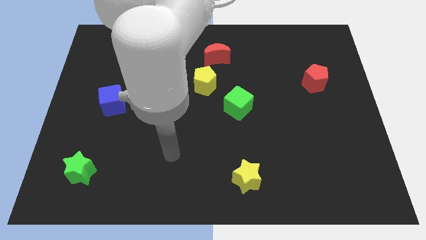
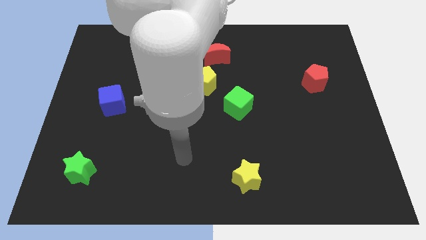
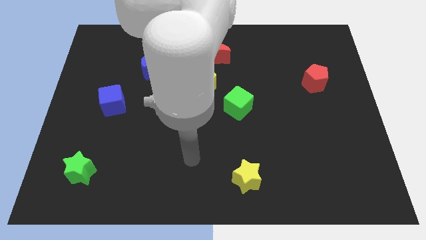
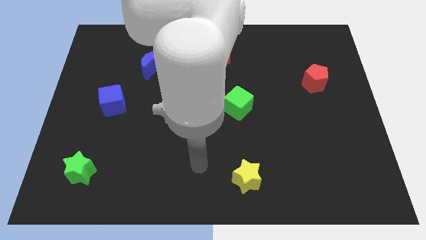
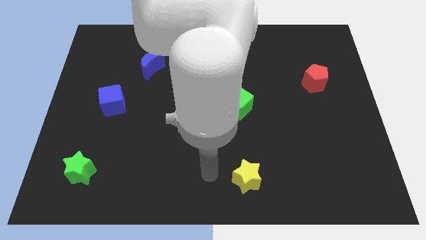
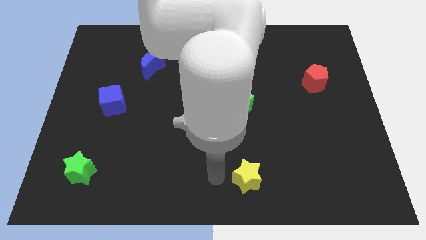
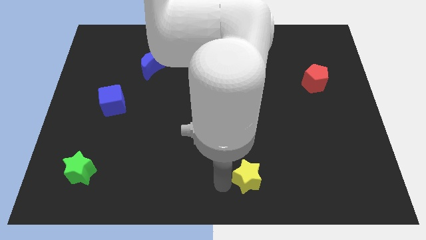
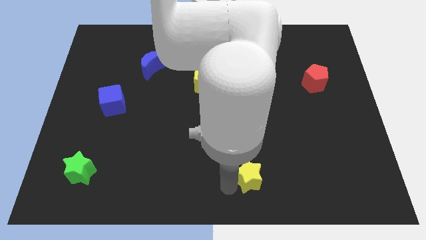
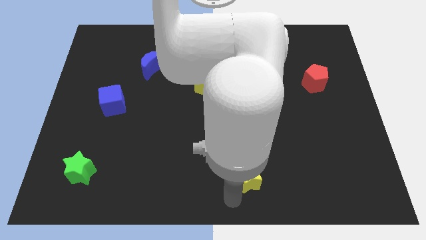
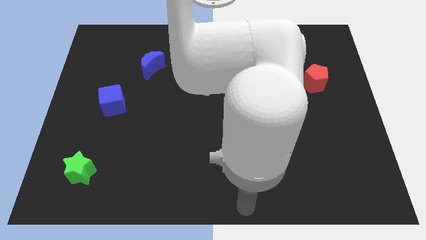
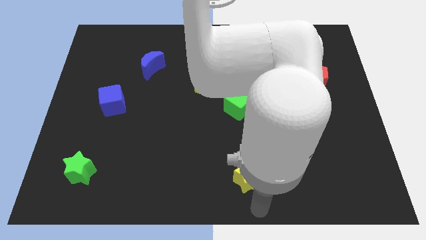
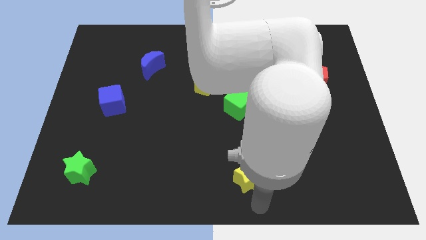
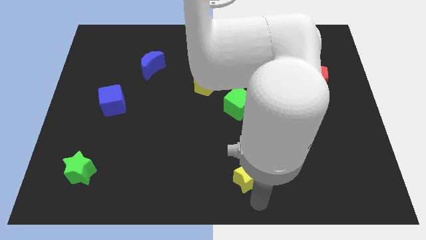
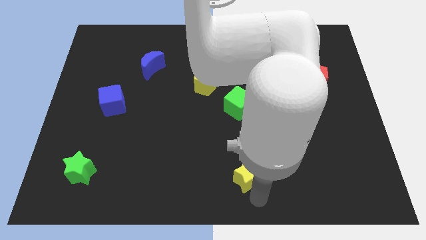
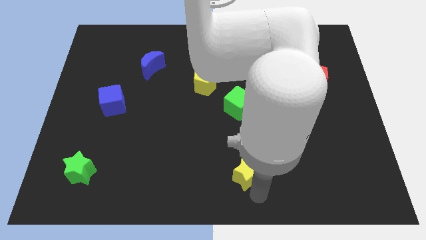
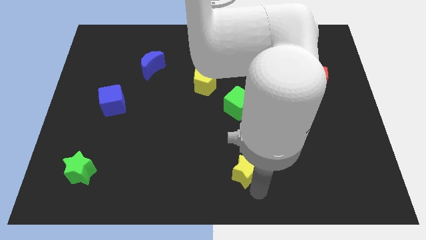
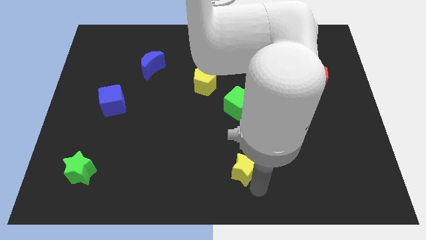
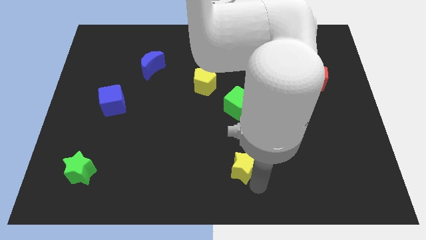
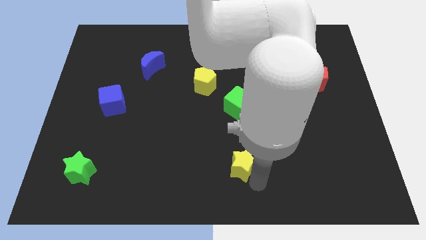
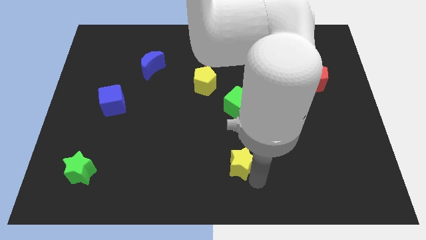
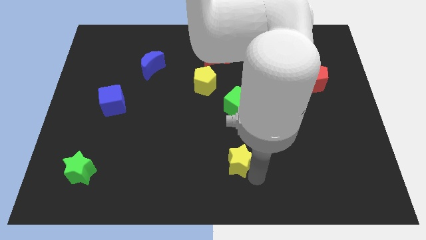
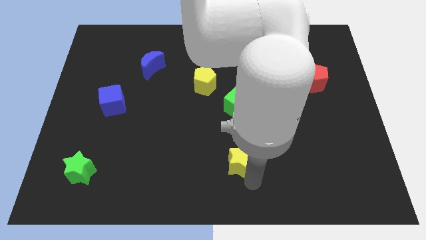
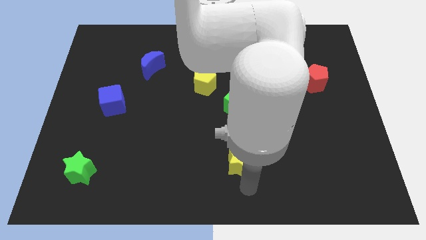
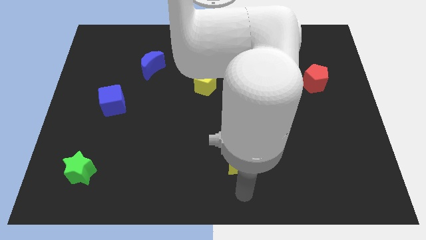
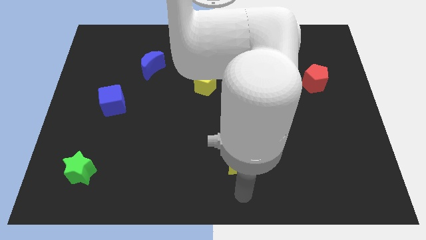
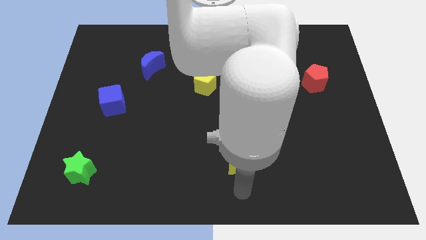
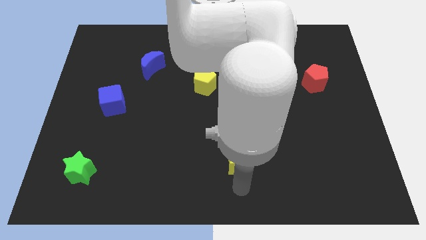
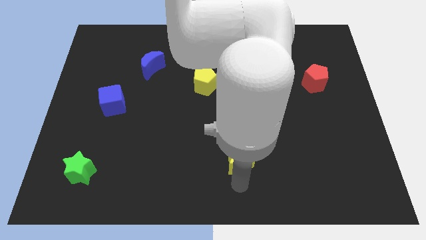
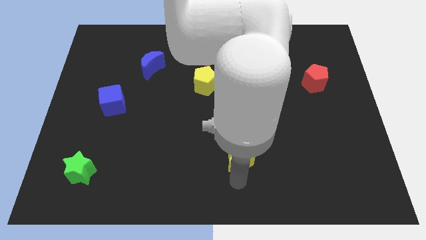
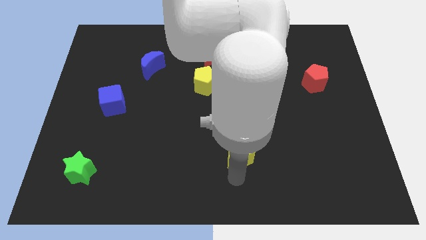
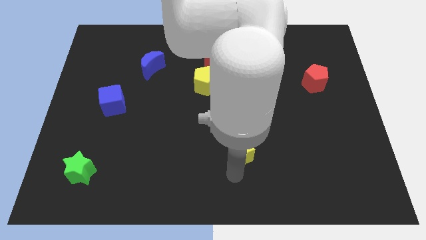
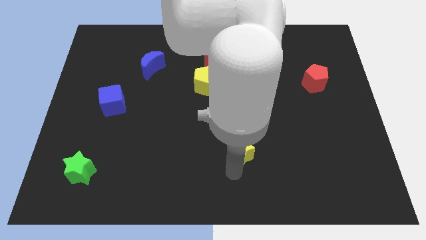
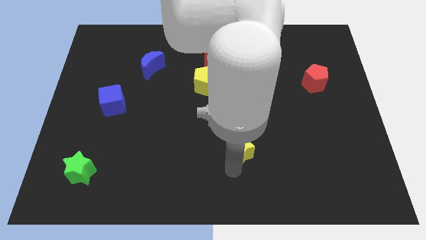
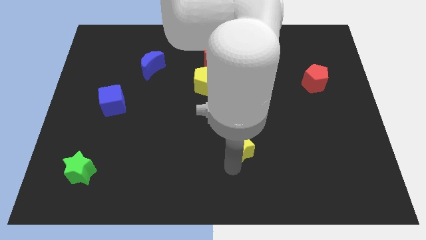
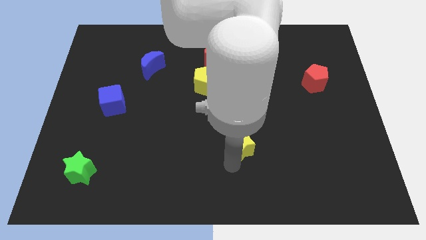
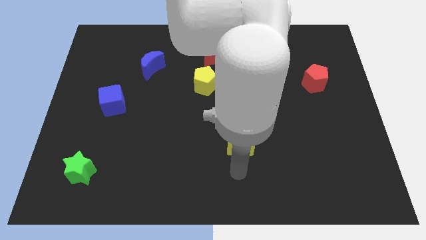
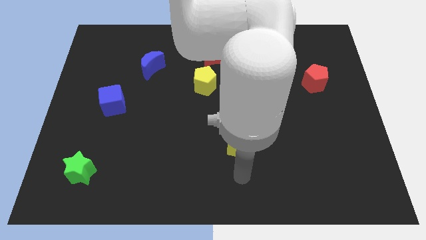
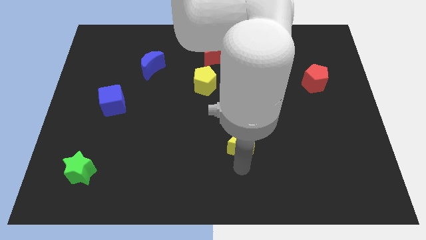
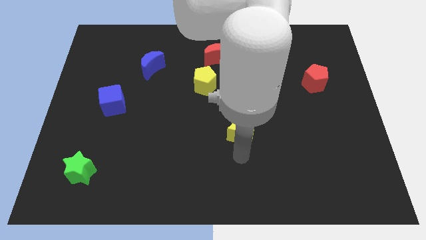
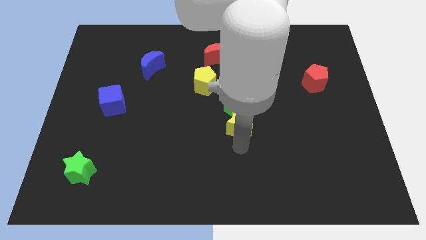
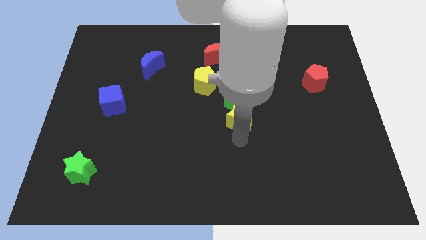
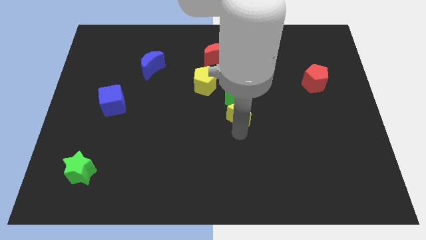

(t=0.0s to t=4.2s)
push the yellow star to the green cube

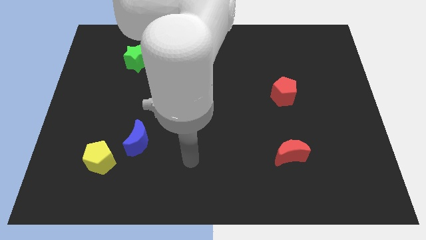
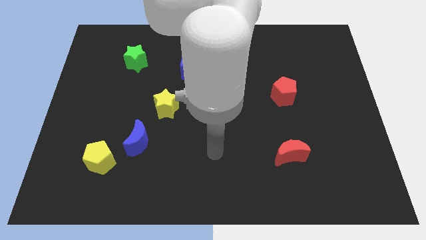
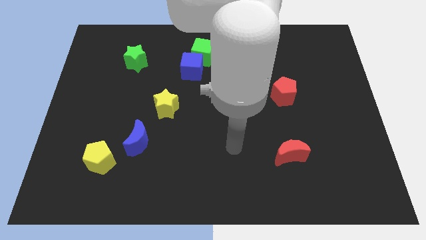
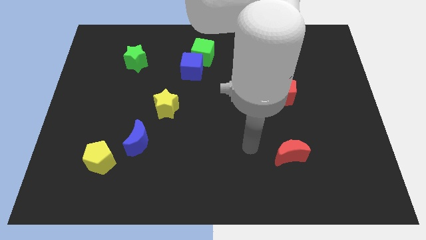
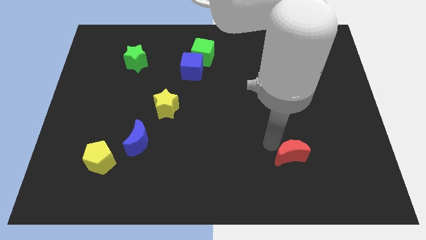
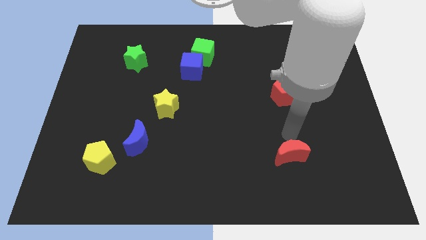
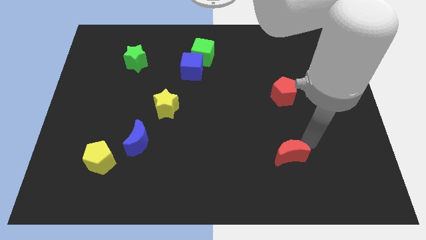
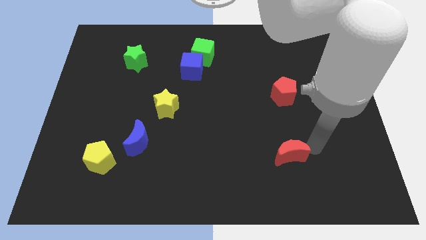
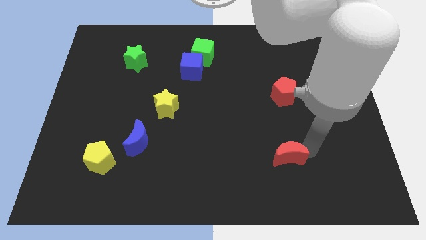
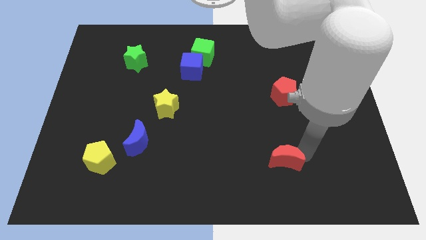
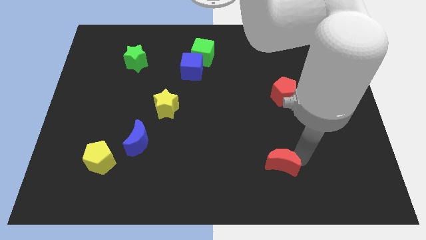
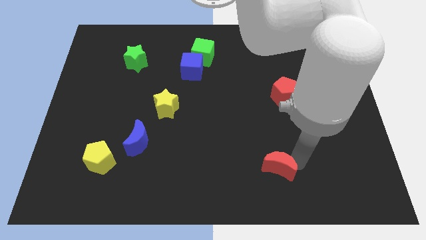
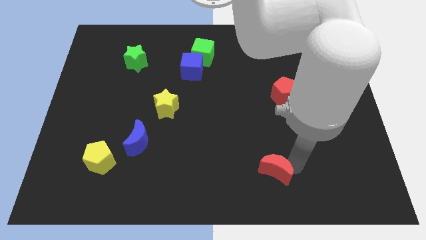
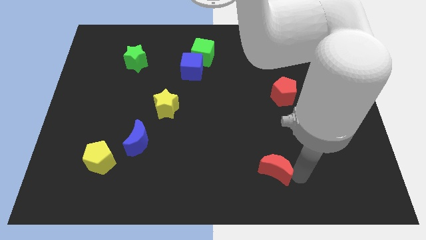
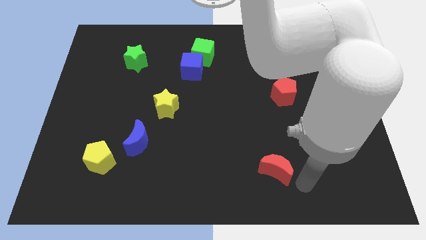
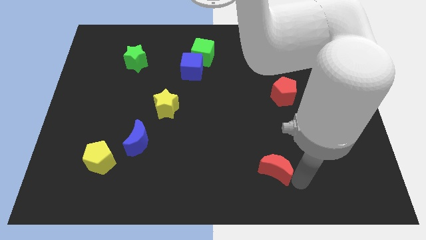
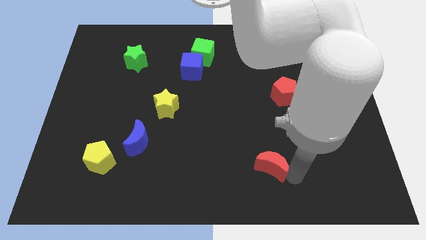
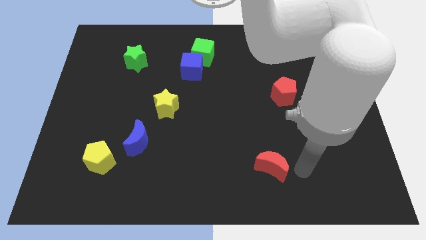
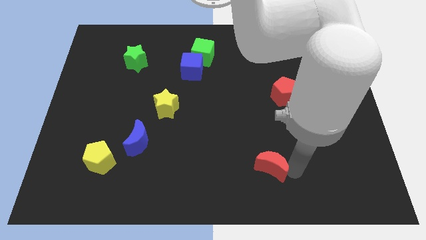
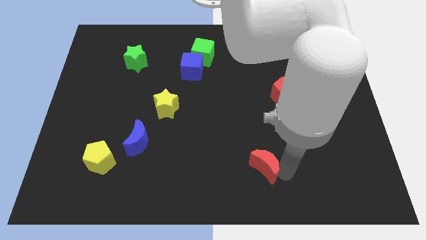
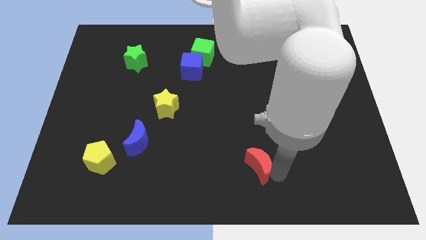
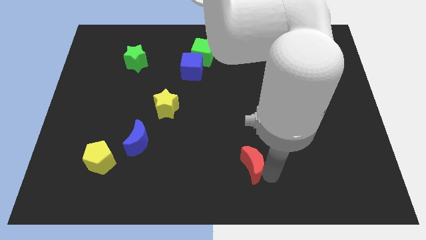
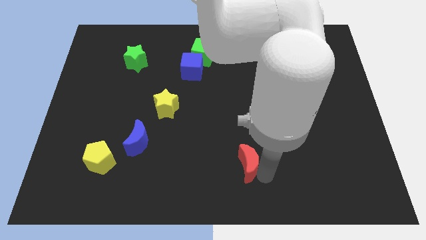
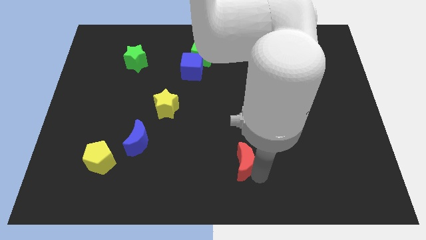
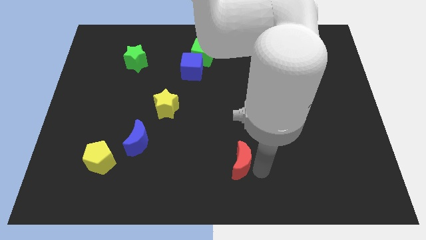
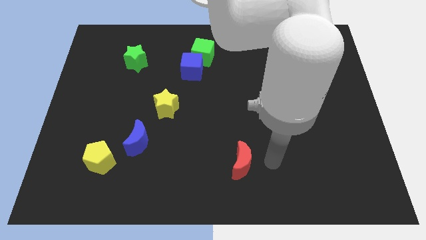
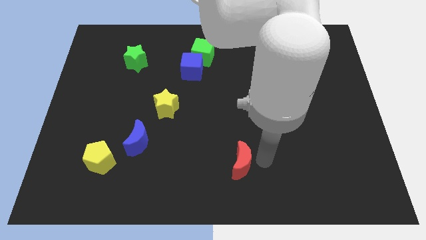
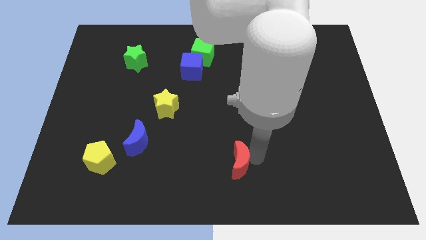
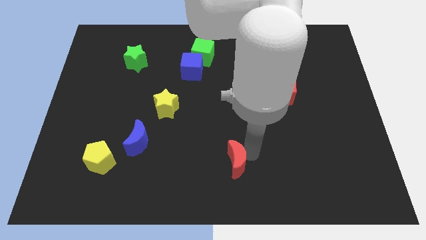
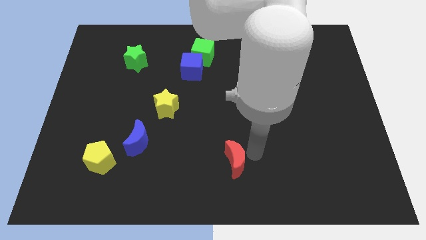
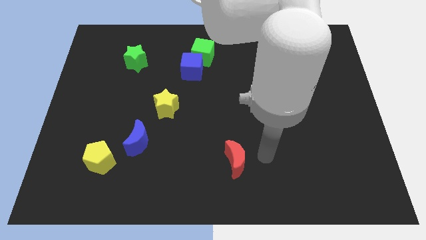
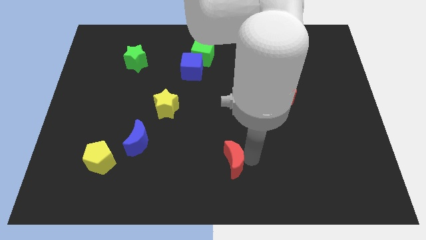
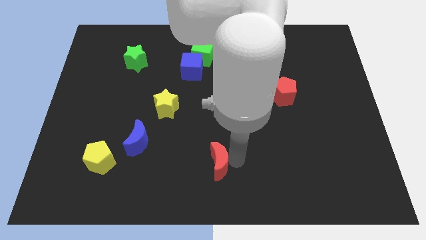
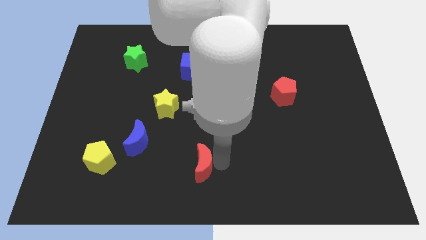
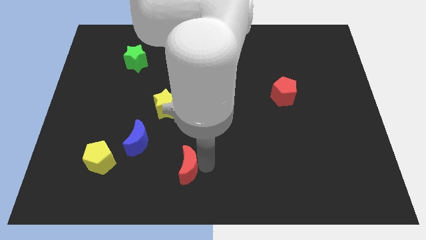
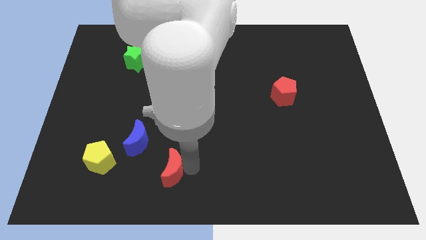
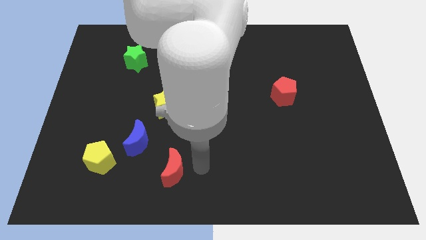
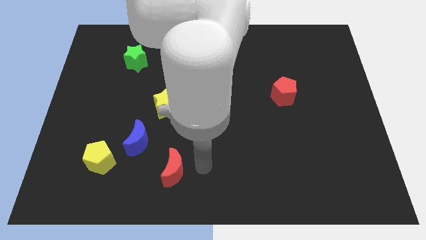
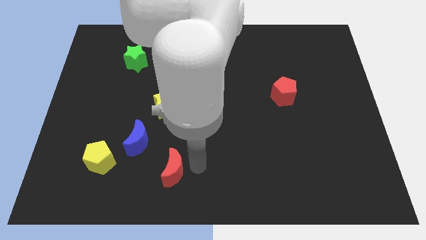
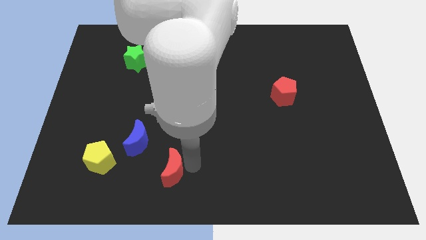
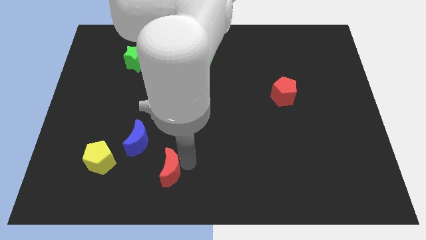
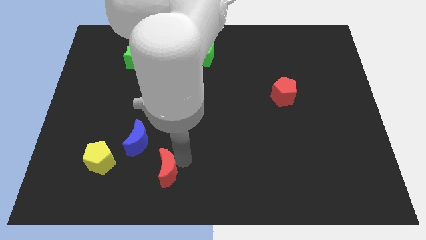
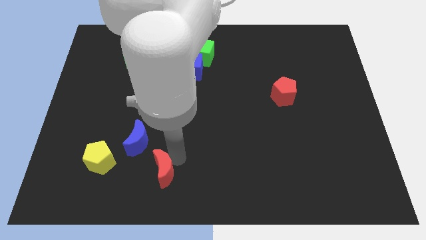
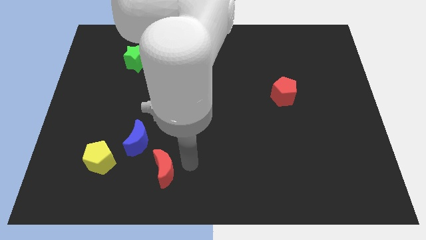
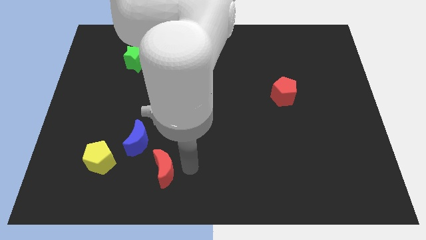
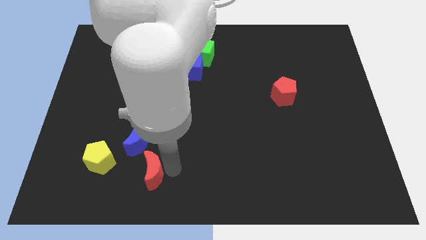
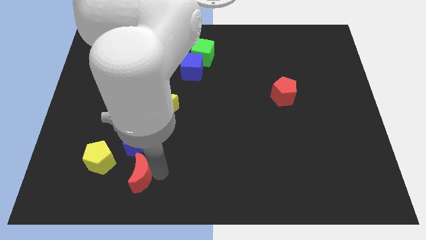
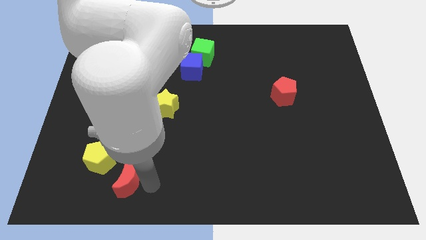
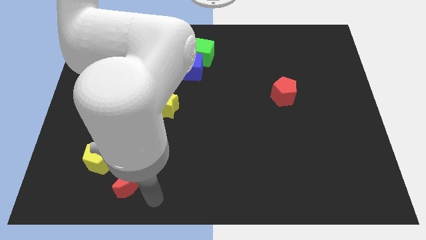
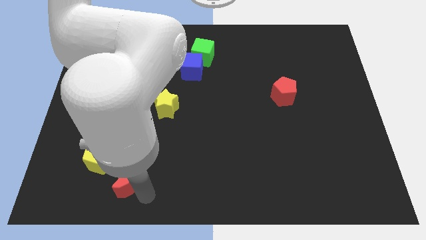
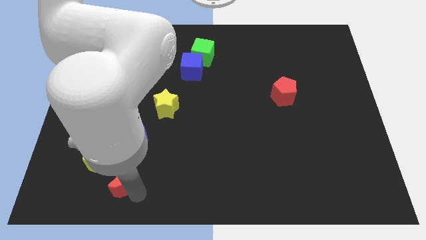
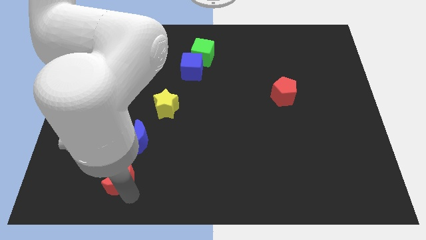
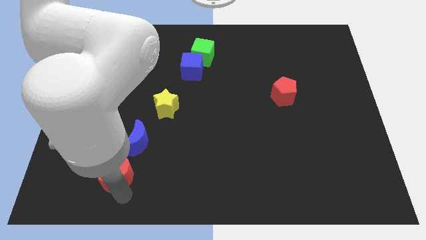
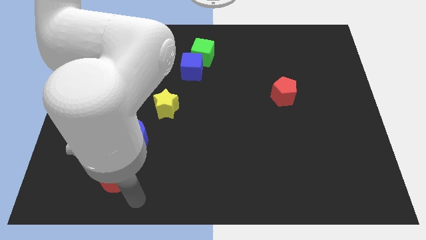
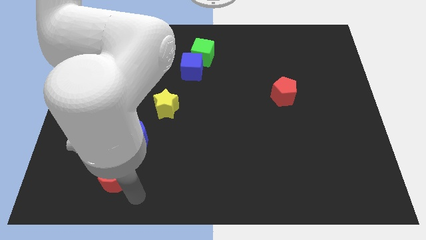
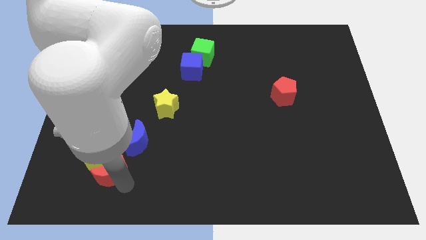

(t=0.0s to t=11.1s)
move the red moon towards the yellow pentagon
